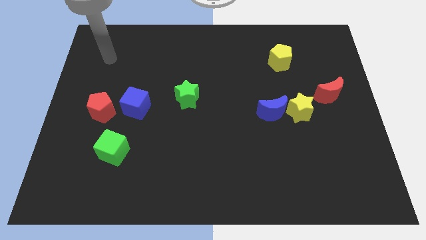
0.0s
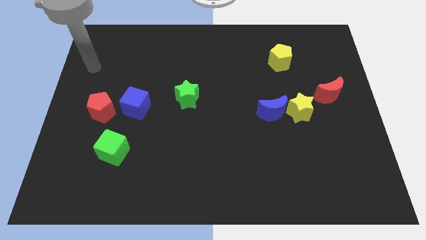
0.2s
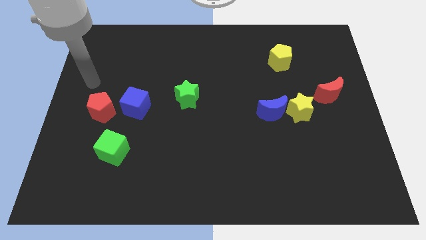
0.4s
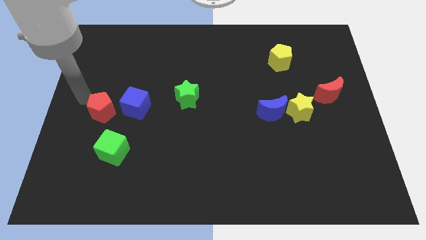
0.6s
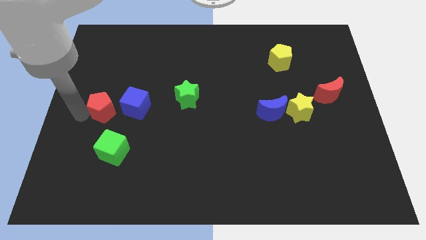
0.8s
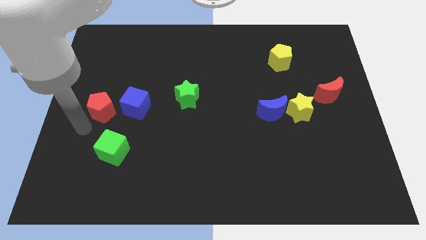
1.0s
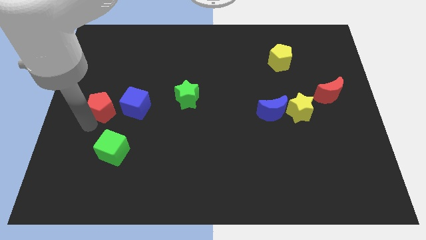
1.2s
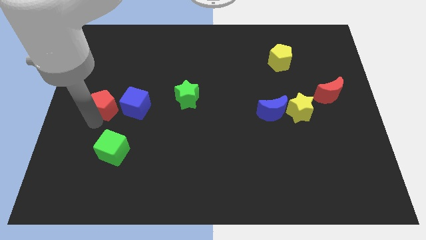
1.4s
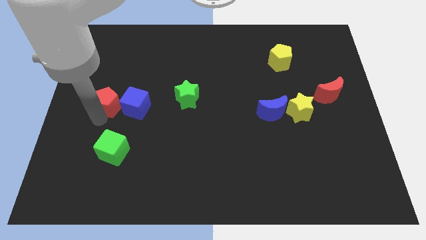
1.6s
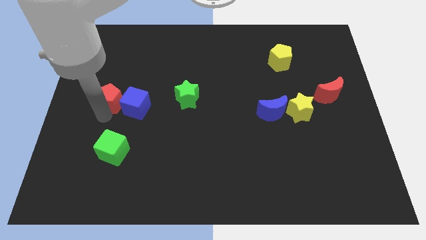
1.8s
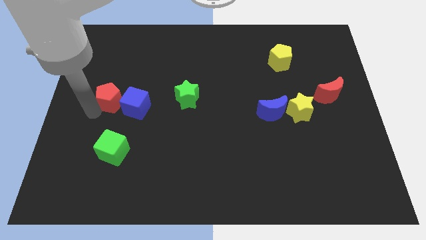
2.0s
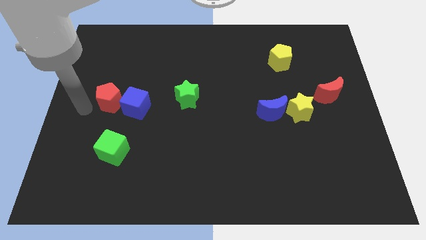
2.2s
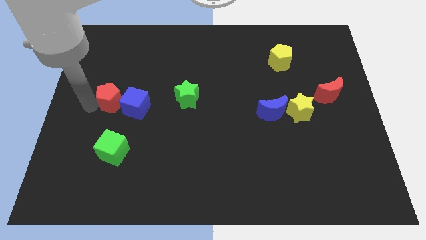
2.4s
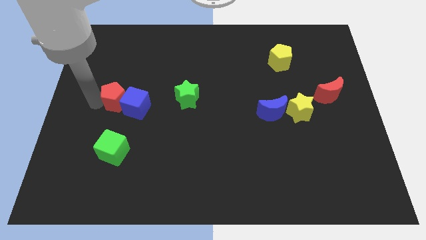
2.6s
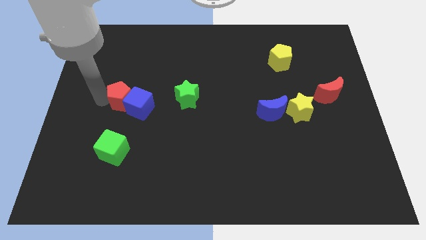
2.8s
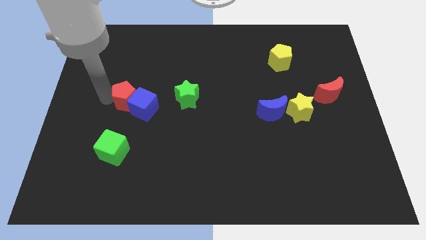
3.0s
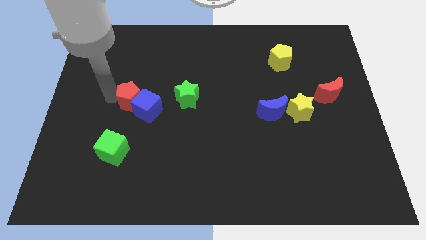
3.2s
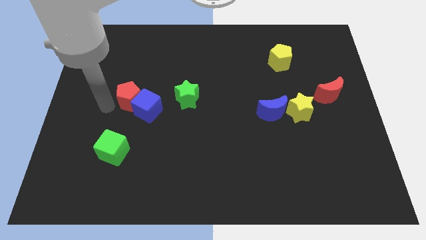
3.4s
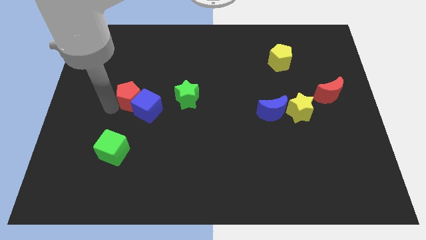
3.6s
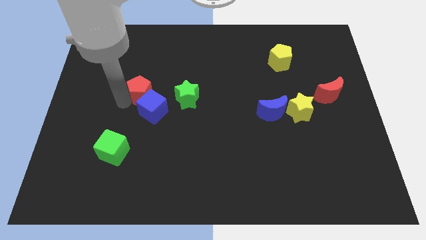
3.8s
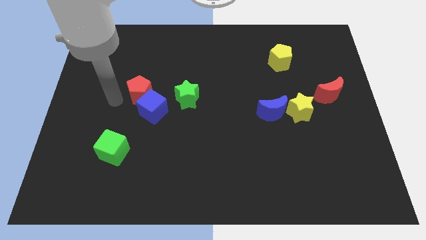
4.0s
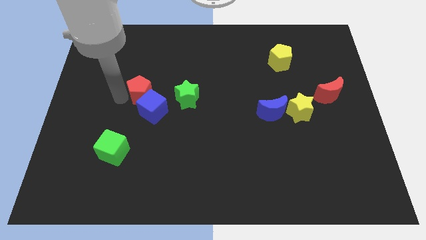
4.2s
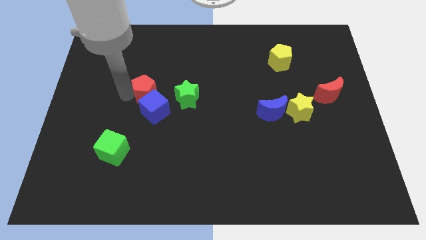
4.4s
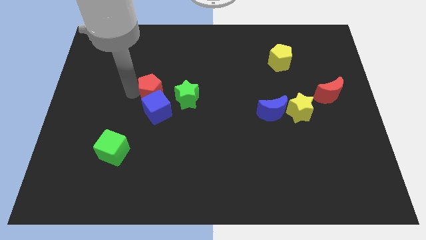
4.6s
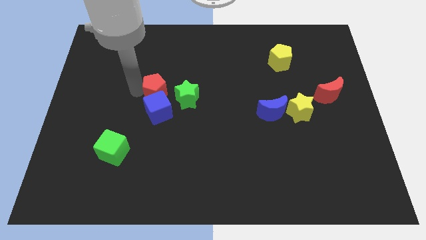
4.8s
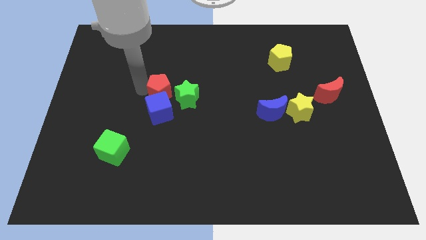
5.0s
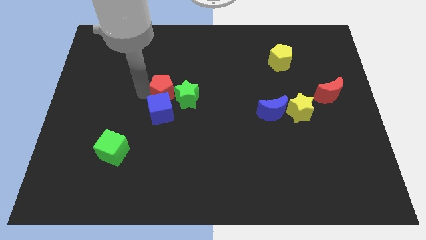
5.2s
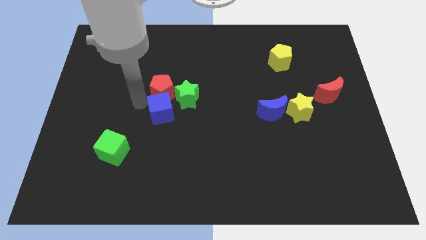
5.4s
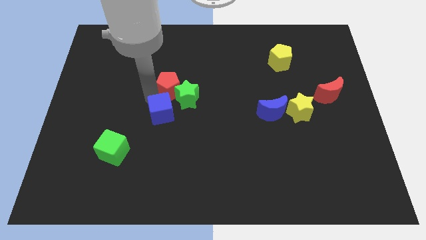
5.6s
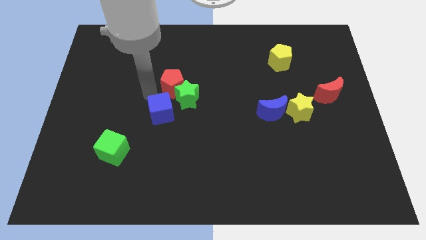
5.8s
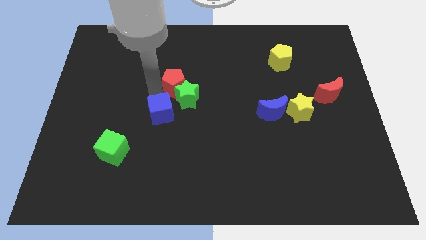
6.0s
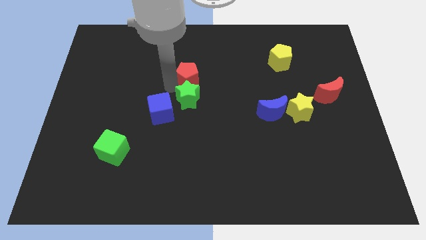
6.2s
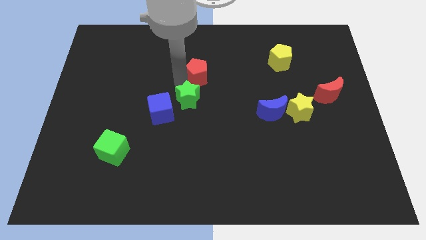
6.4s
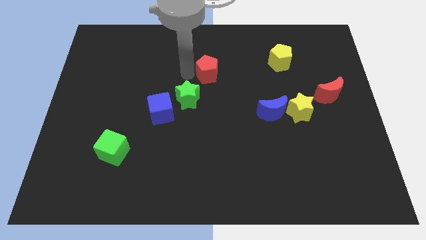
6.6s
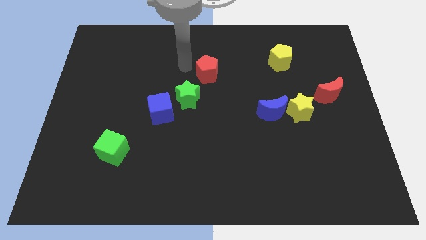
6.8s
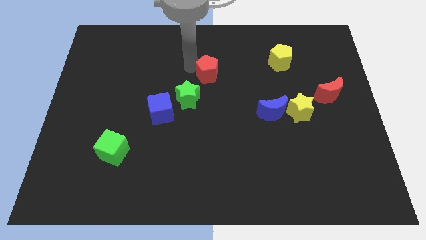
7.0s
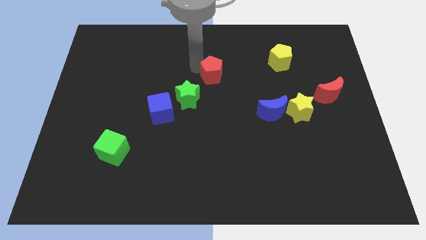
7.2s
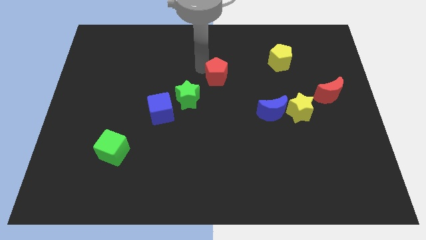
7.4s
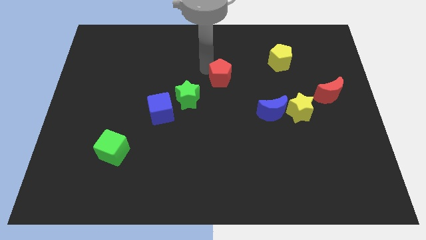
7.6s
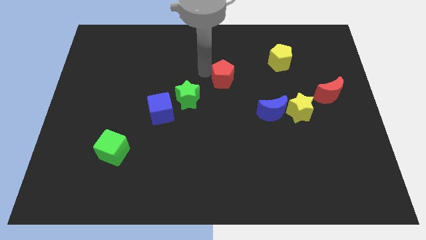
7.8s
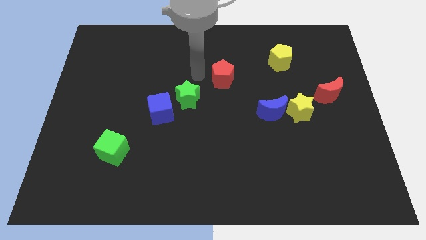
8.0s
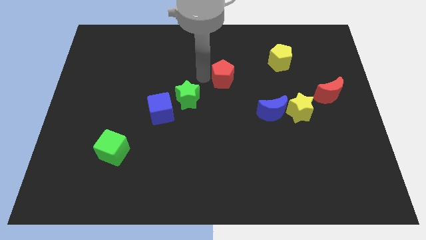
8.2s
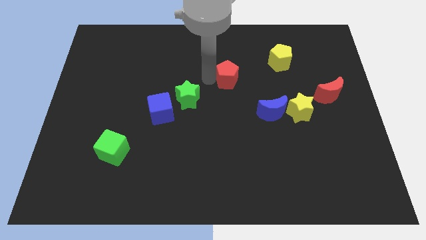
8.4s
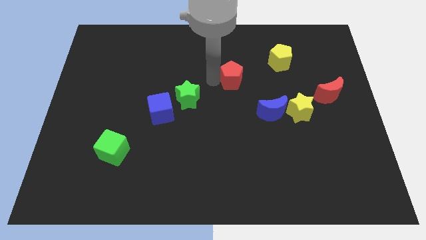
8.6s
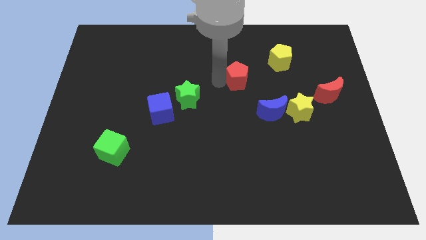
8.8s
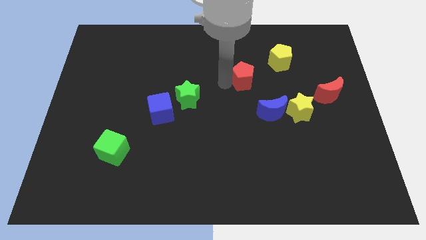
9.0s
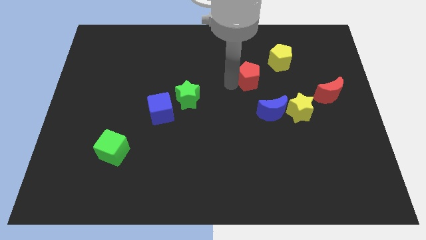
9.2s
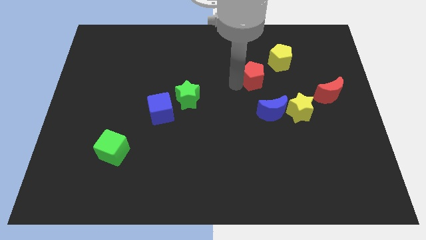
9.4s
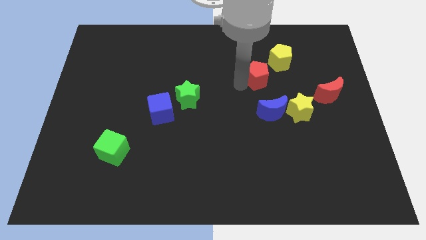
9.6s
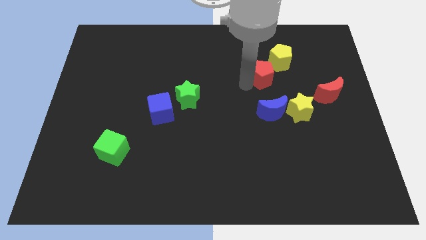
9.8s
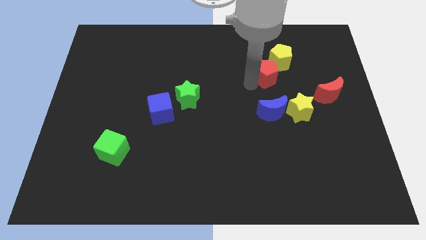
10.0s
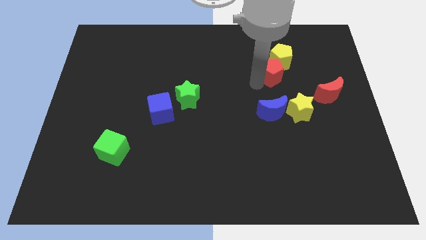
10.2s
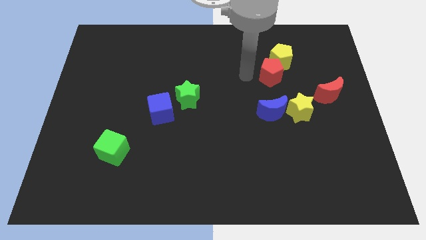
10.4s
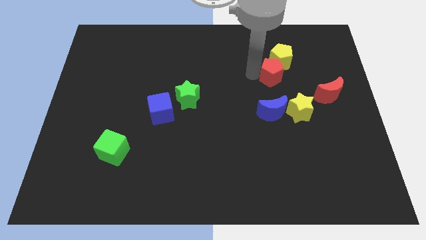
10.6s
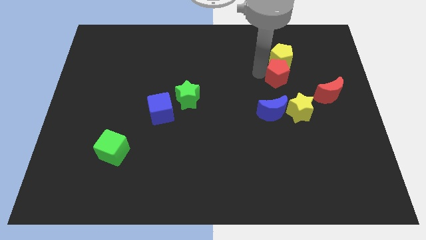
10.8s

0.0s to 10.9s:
put the red pentagon to the bottom right side of the yellow pentagon

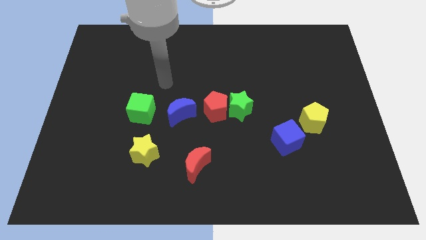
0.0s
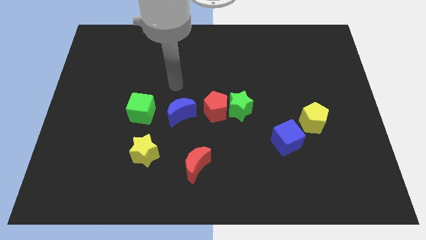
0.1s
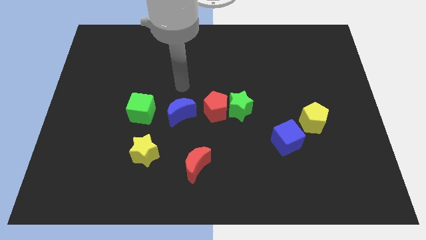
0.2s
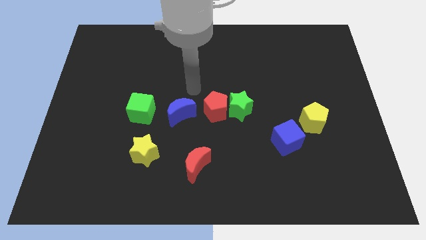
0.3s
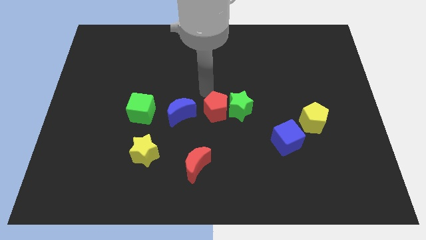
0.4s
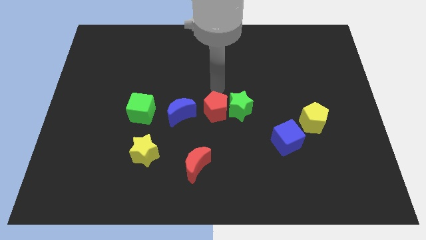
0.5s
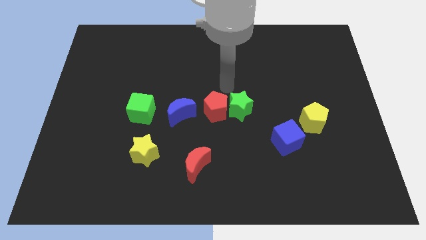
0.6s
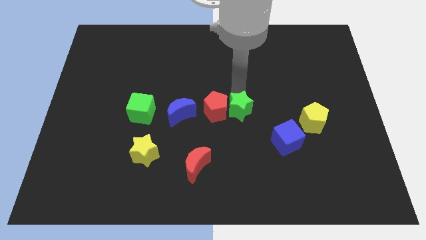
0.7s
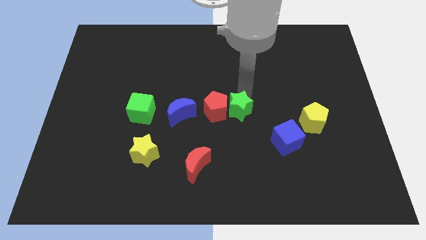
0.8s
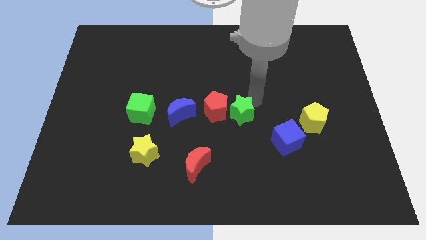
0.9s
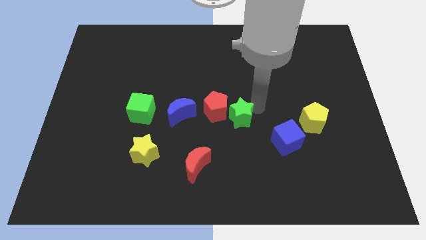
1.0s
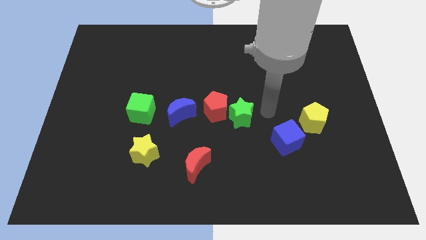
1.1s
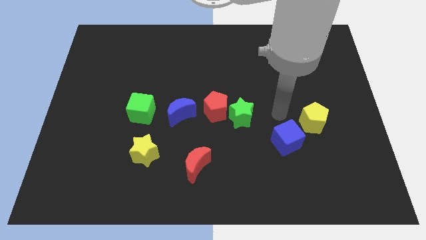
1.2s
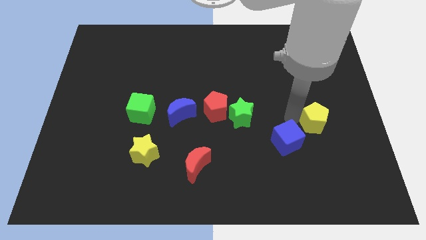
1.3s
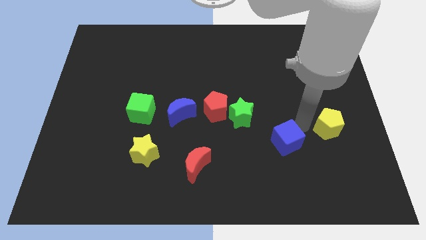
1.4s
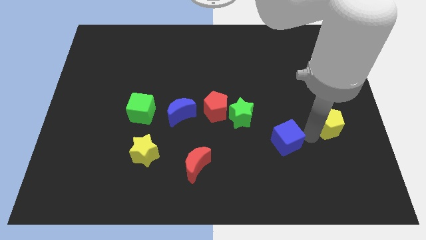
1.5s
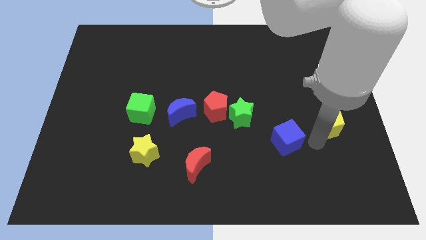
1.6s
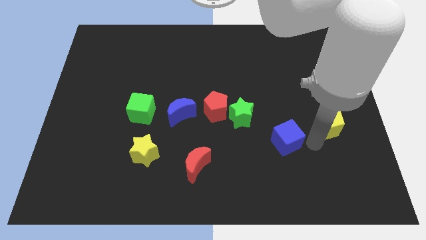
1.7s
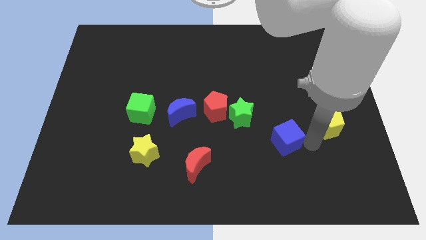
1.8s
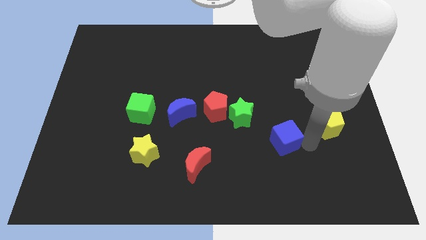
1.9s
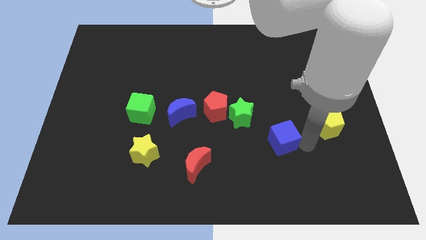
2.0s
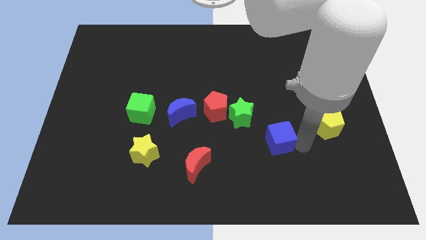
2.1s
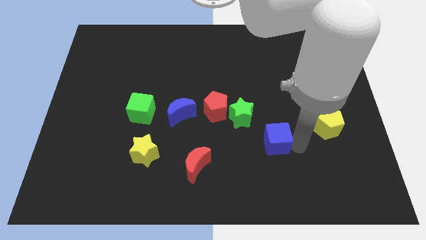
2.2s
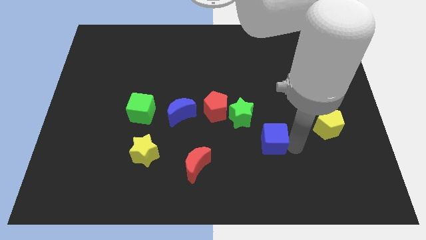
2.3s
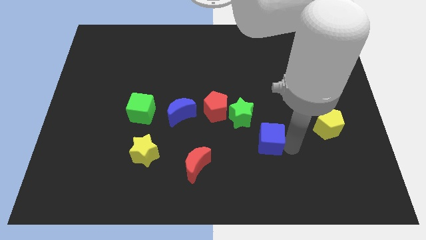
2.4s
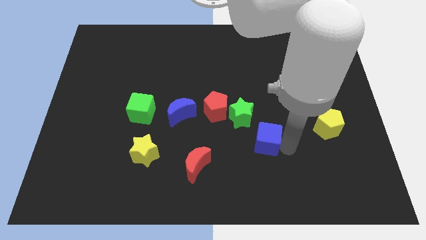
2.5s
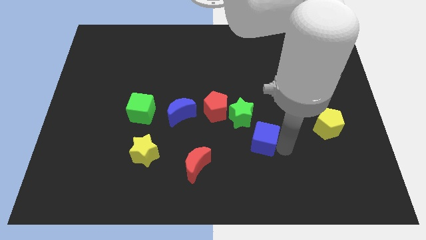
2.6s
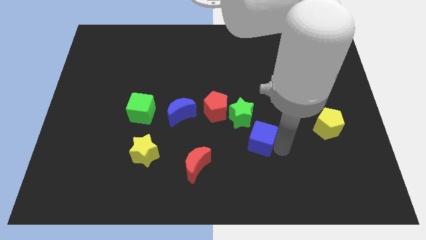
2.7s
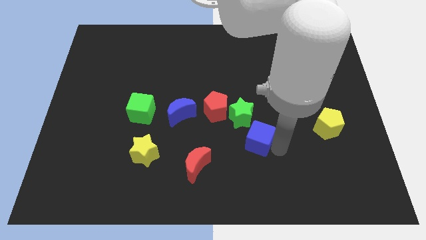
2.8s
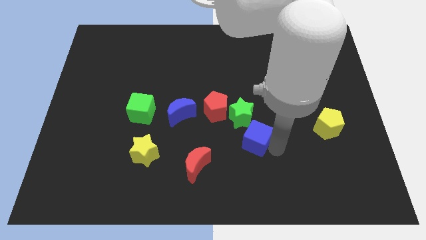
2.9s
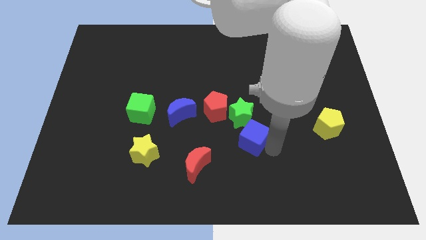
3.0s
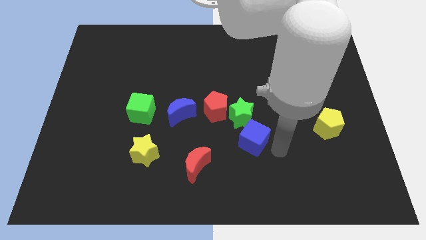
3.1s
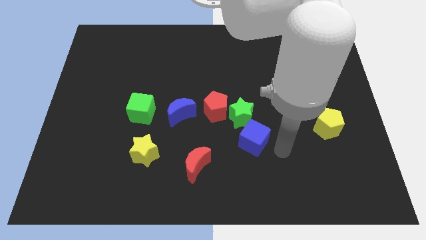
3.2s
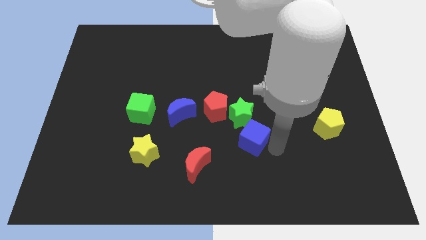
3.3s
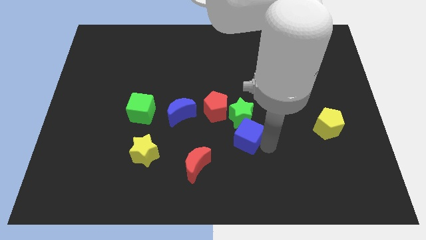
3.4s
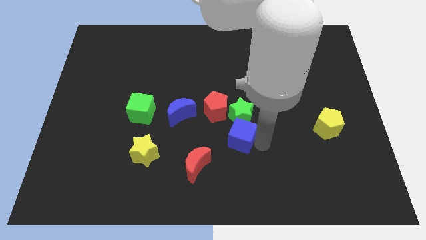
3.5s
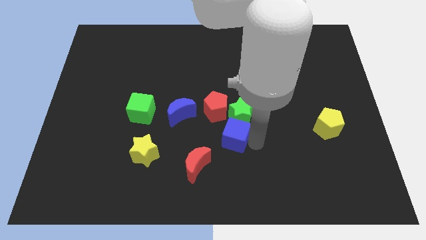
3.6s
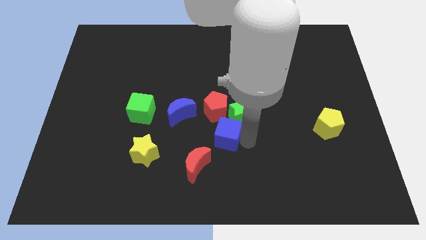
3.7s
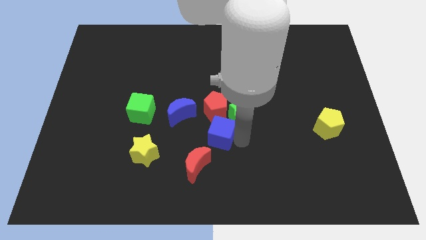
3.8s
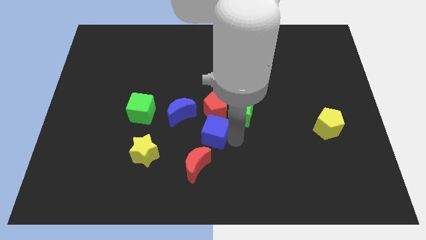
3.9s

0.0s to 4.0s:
slide the blue cube to the bottom left of the red pentagon
